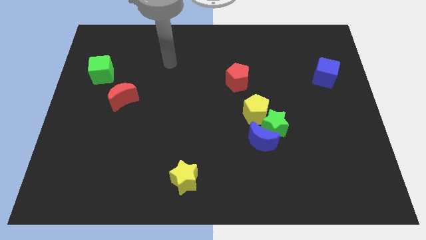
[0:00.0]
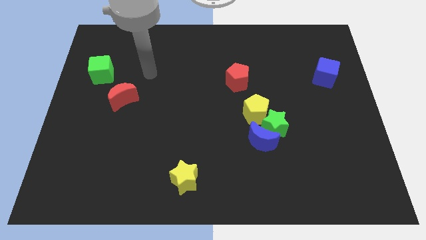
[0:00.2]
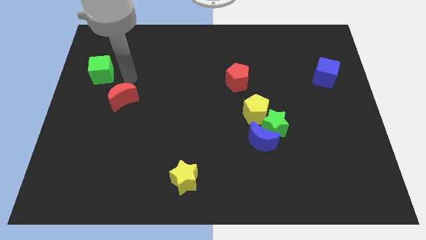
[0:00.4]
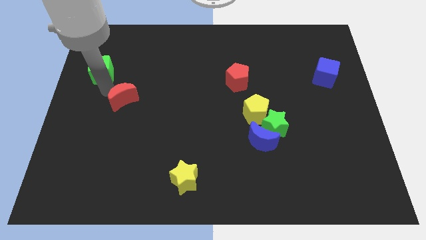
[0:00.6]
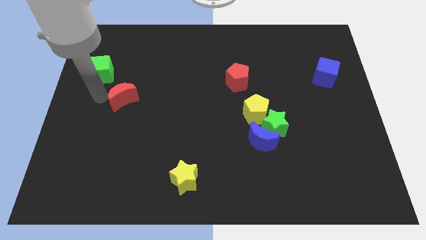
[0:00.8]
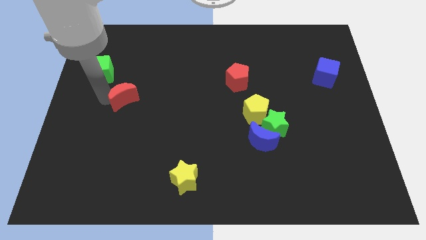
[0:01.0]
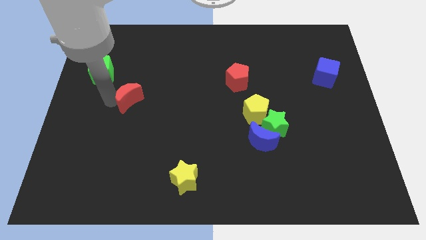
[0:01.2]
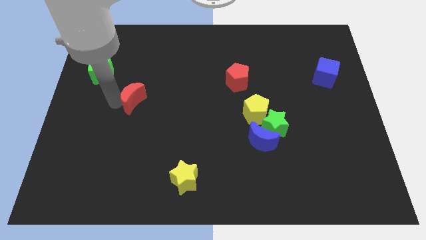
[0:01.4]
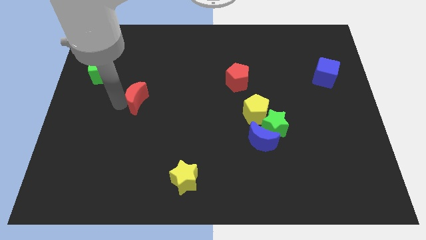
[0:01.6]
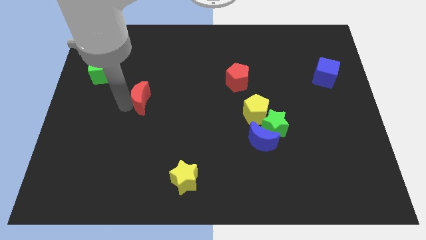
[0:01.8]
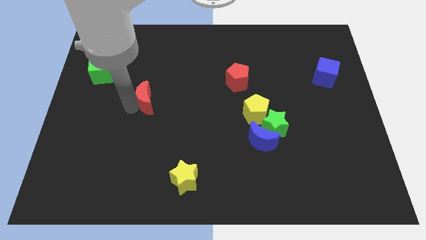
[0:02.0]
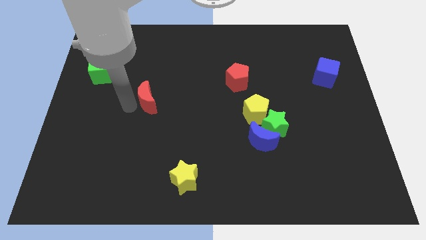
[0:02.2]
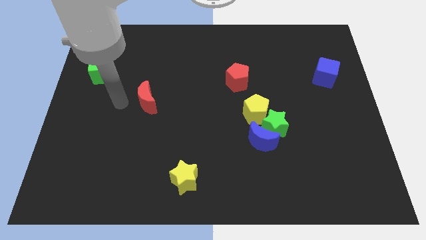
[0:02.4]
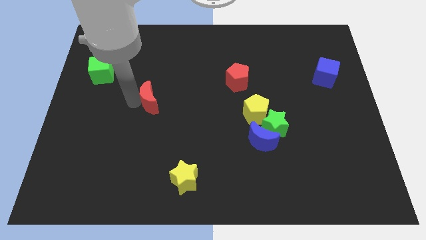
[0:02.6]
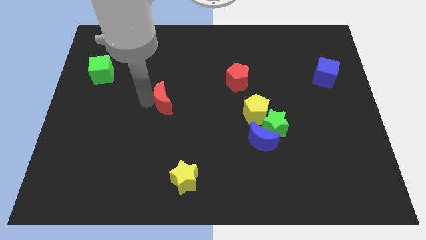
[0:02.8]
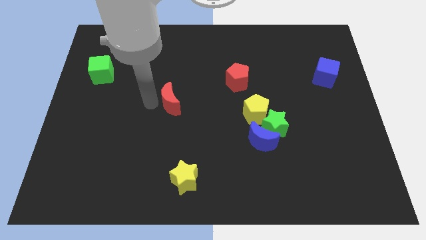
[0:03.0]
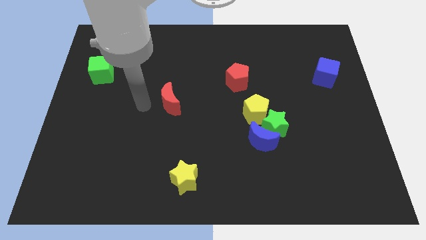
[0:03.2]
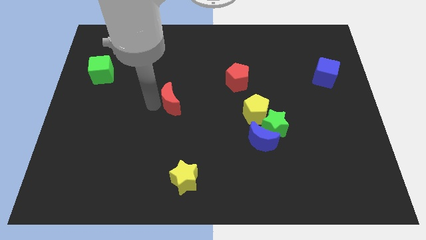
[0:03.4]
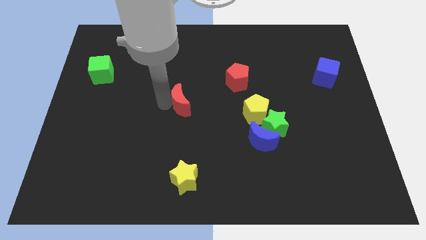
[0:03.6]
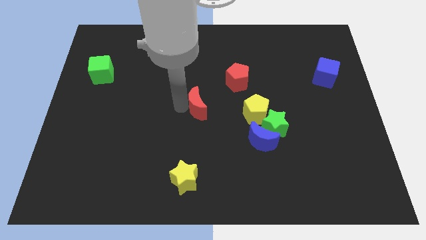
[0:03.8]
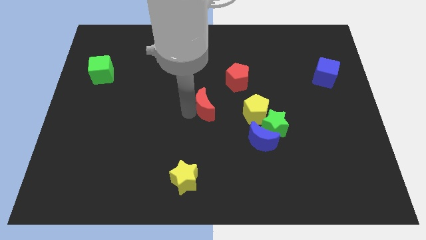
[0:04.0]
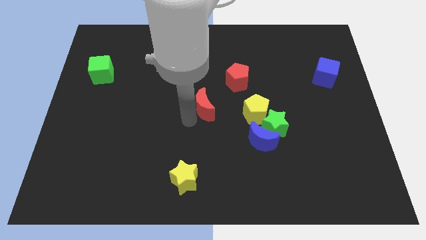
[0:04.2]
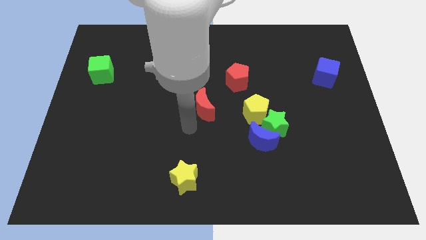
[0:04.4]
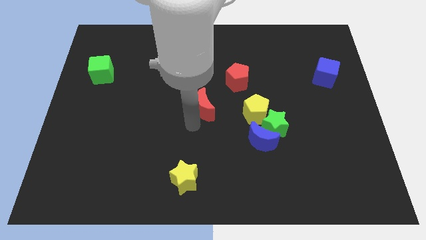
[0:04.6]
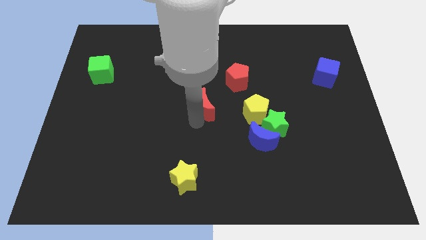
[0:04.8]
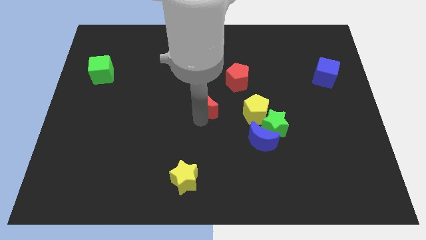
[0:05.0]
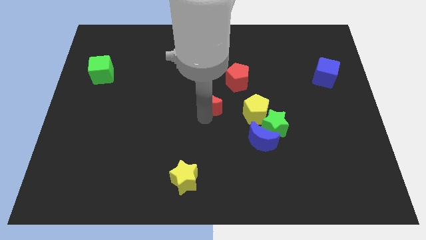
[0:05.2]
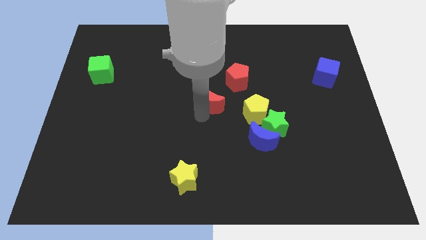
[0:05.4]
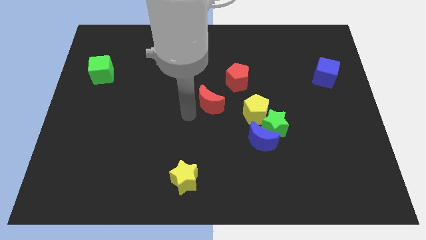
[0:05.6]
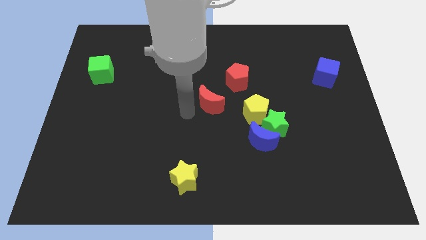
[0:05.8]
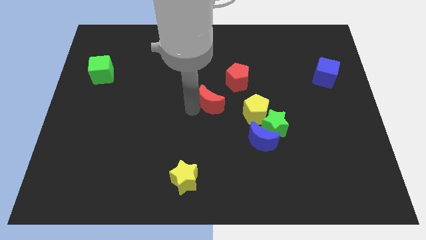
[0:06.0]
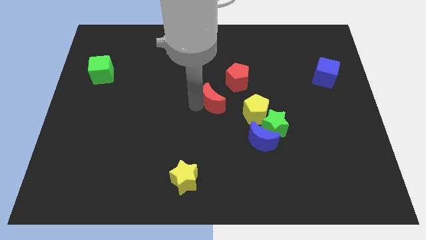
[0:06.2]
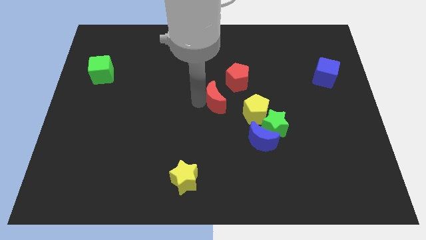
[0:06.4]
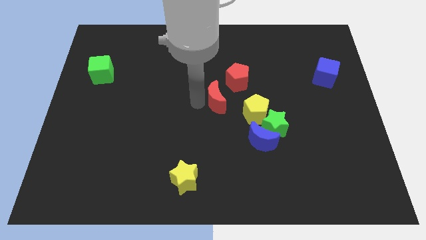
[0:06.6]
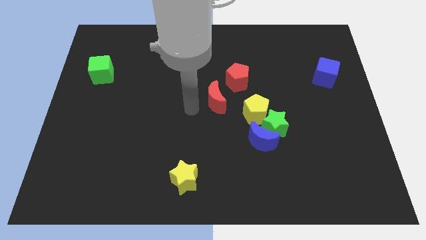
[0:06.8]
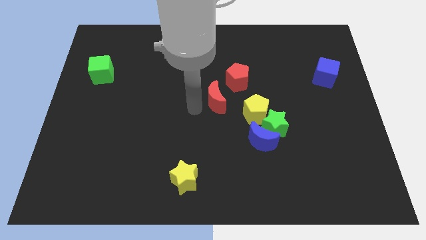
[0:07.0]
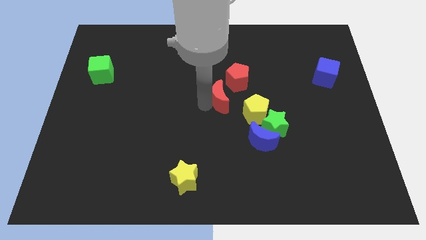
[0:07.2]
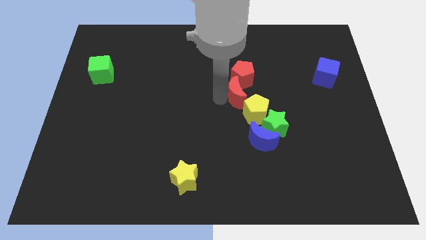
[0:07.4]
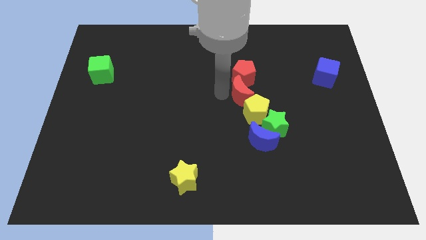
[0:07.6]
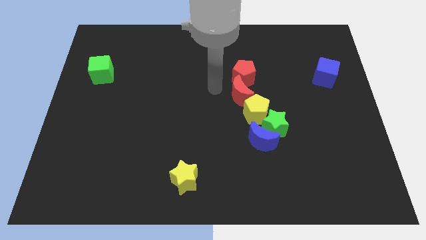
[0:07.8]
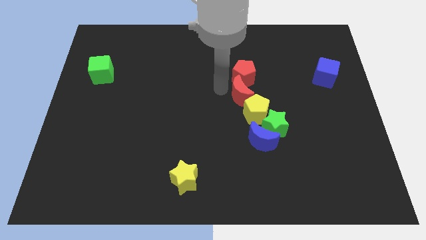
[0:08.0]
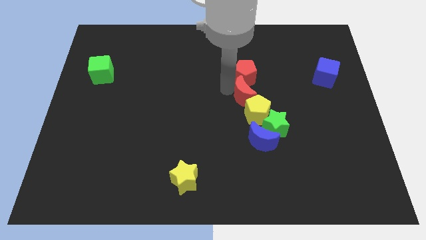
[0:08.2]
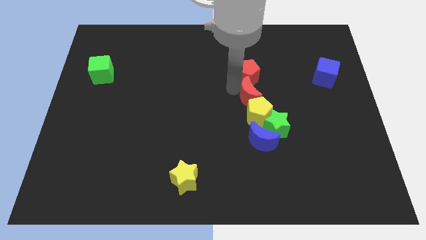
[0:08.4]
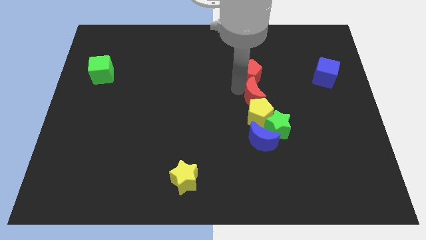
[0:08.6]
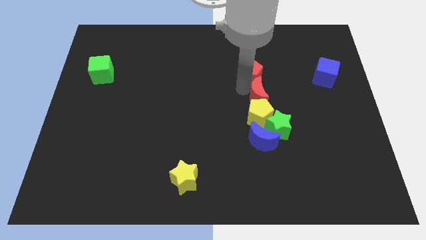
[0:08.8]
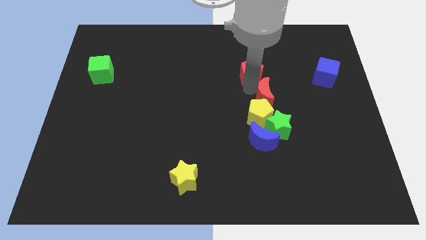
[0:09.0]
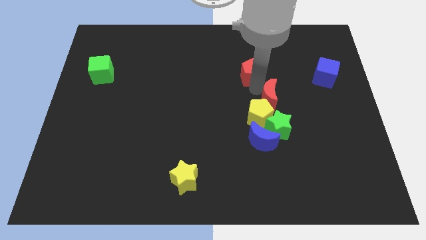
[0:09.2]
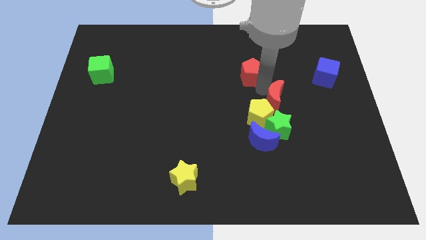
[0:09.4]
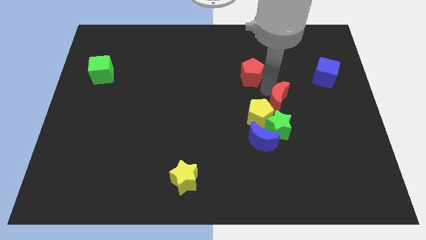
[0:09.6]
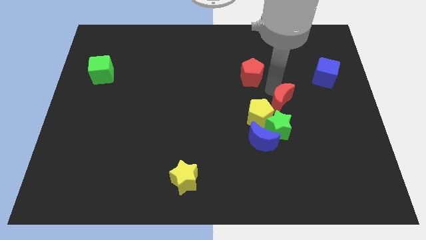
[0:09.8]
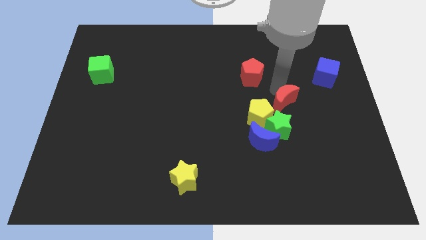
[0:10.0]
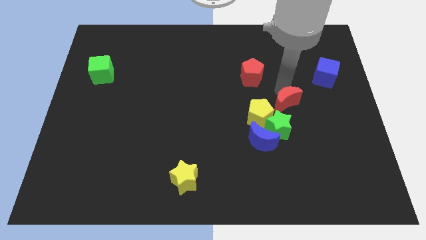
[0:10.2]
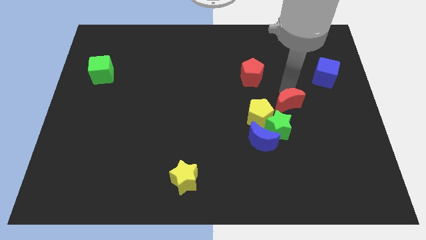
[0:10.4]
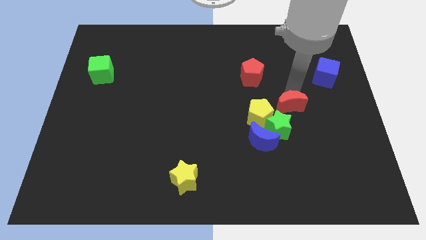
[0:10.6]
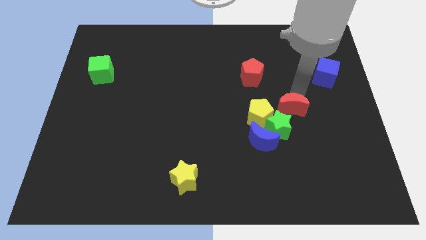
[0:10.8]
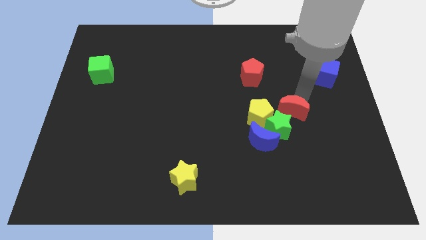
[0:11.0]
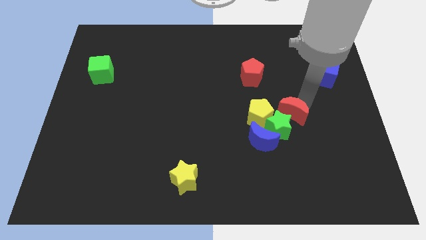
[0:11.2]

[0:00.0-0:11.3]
move the red moon next to the green star

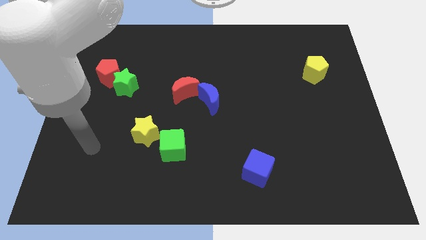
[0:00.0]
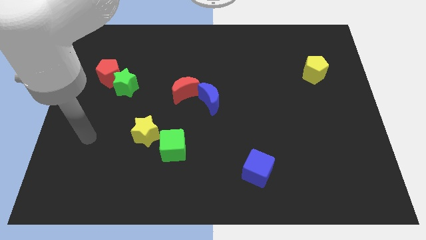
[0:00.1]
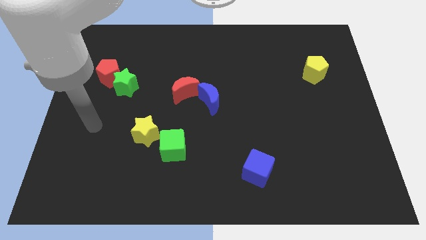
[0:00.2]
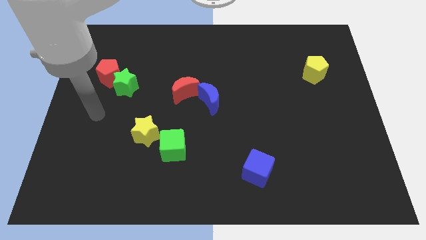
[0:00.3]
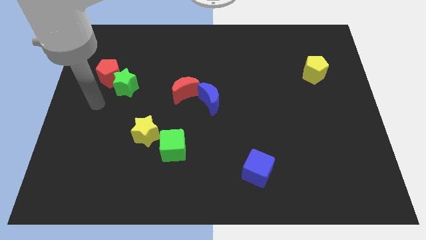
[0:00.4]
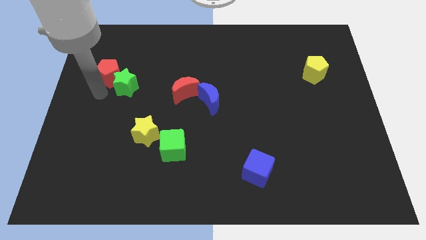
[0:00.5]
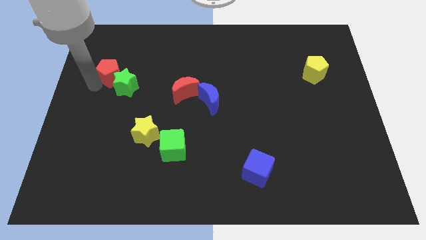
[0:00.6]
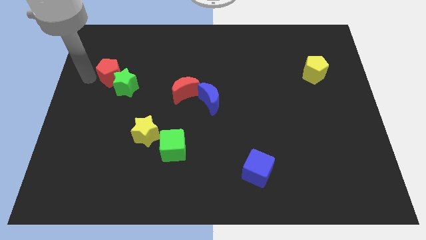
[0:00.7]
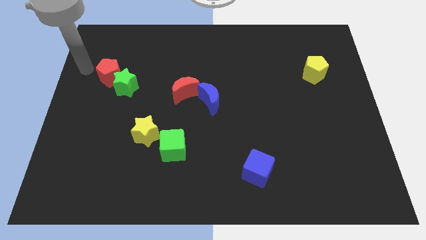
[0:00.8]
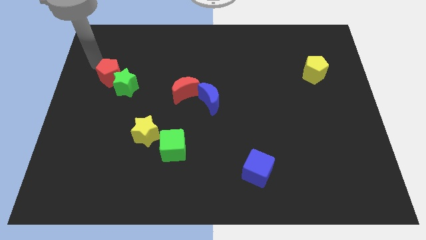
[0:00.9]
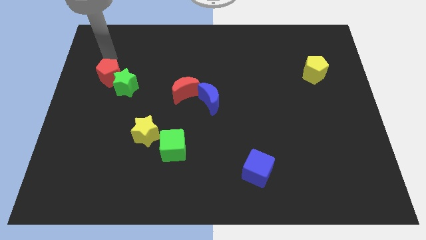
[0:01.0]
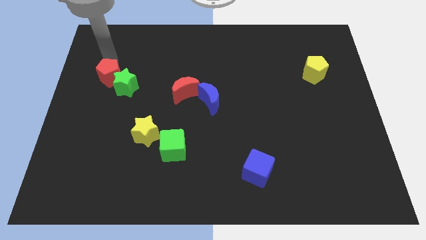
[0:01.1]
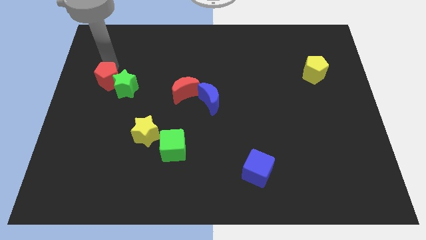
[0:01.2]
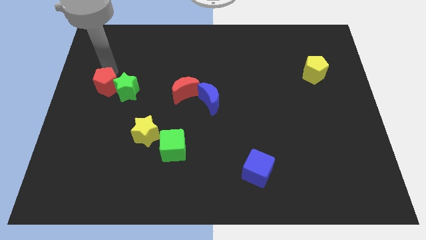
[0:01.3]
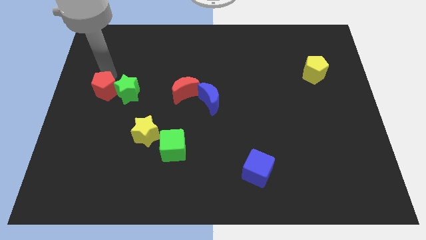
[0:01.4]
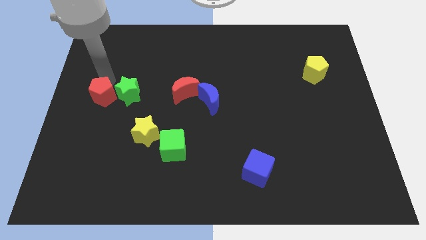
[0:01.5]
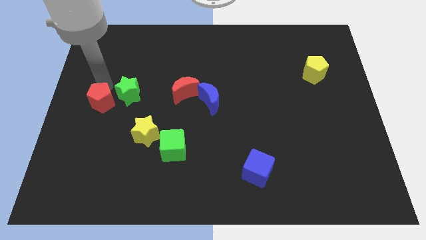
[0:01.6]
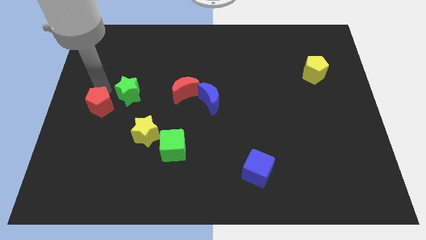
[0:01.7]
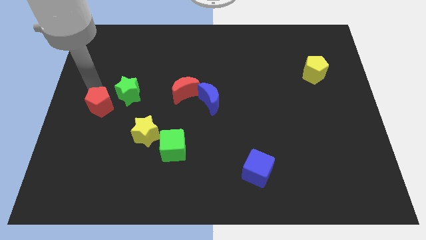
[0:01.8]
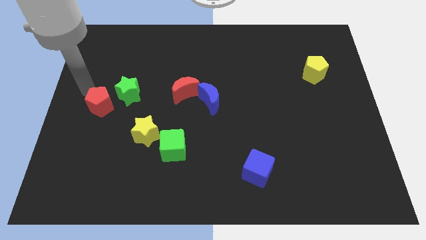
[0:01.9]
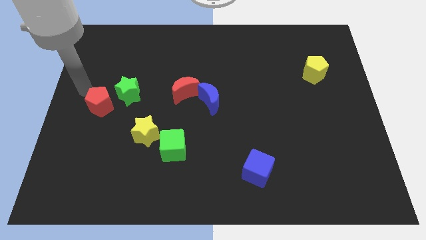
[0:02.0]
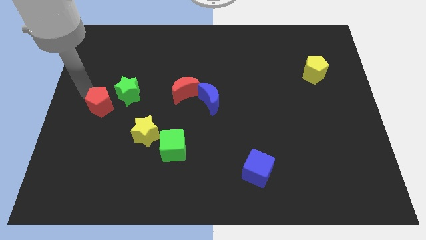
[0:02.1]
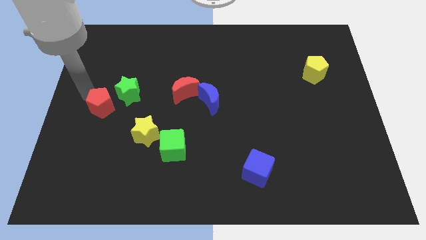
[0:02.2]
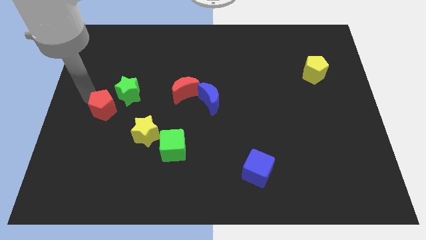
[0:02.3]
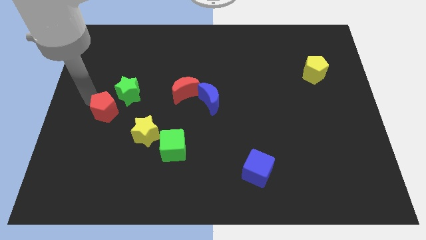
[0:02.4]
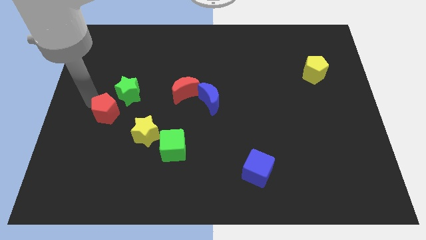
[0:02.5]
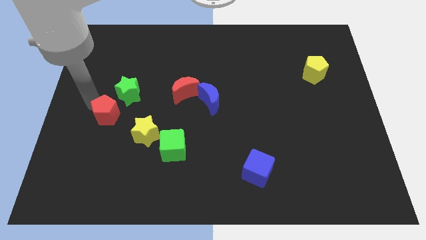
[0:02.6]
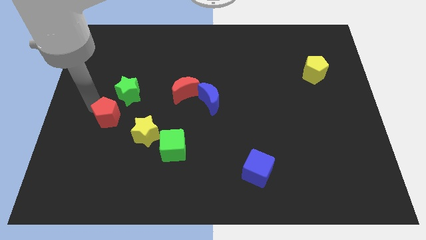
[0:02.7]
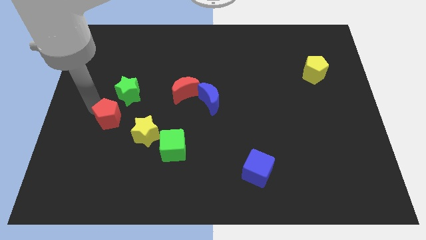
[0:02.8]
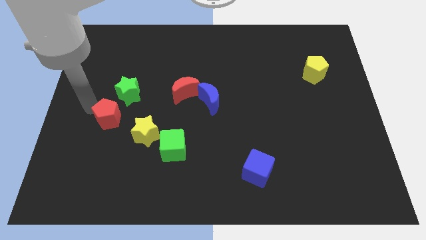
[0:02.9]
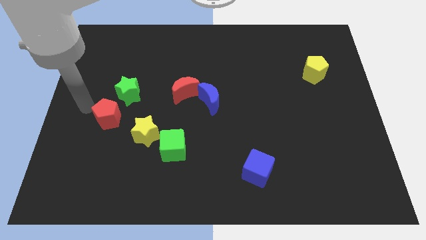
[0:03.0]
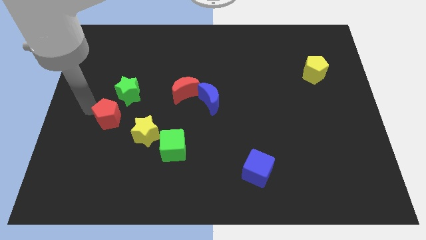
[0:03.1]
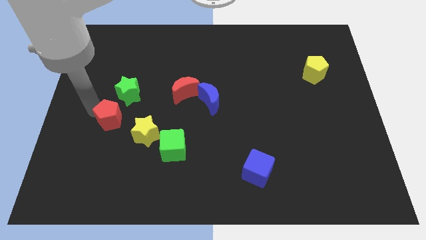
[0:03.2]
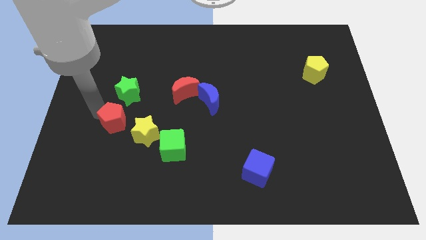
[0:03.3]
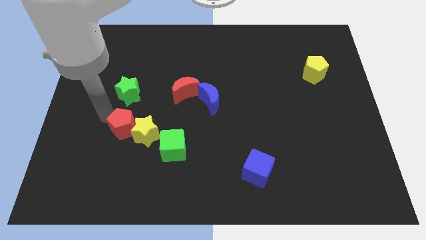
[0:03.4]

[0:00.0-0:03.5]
slide the red pentagon next to the yellow star
